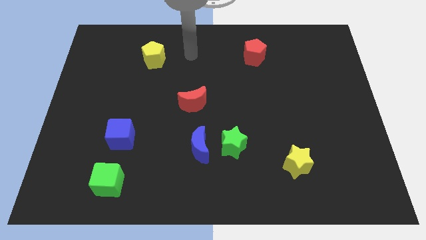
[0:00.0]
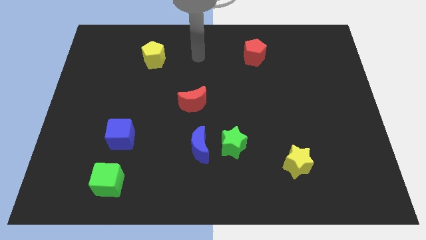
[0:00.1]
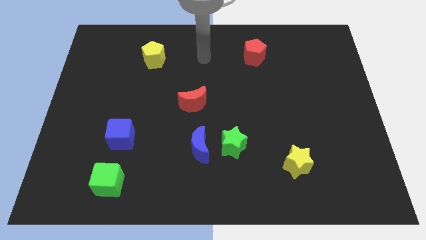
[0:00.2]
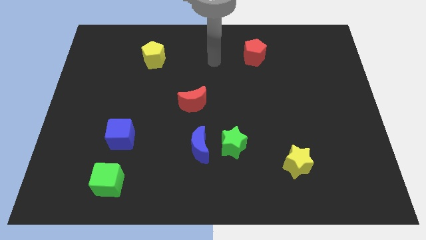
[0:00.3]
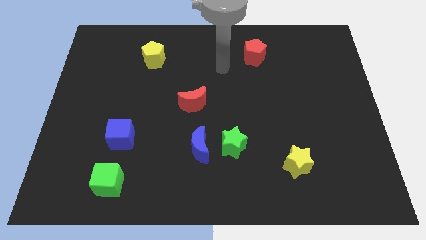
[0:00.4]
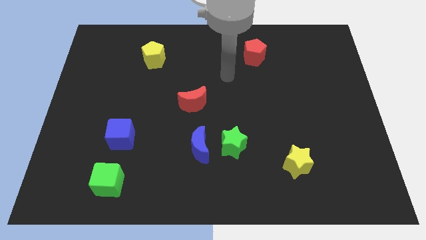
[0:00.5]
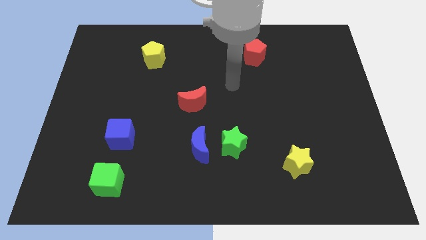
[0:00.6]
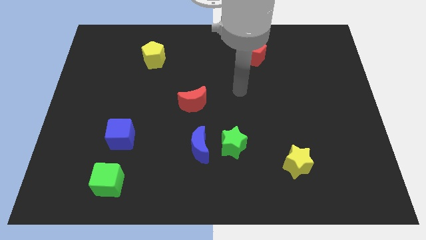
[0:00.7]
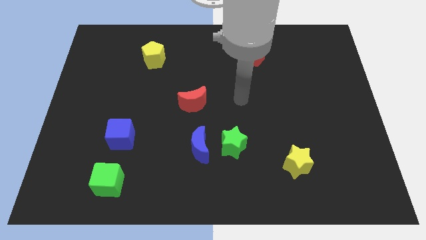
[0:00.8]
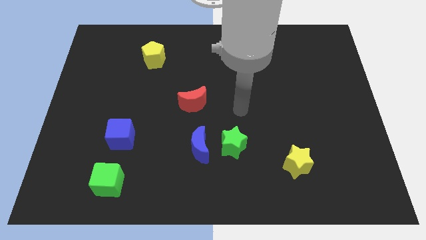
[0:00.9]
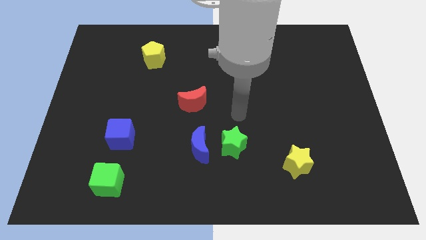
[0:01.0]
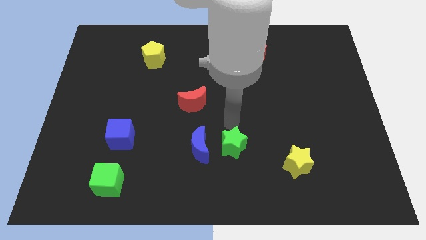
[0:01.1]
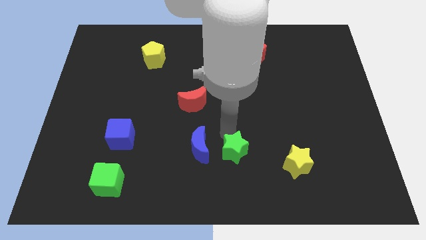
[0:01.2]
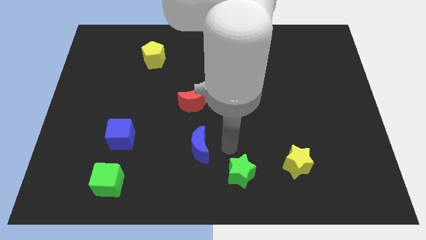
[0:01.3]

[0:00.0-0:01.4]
separate the blue moon from the green star

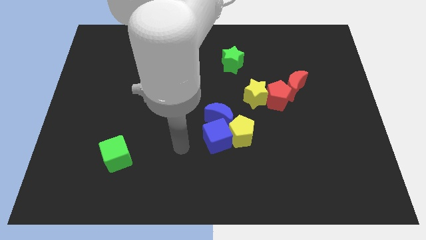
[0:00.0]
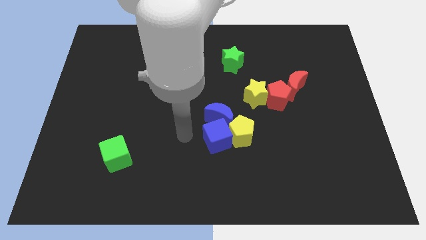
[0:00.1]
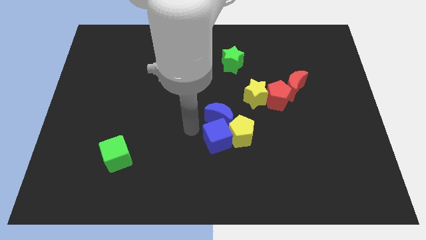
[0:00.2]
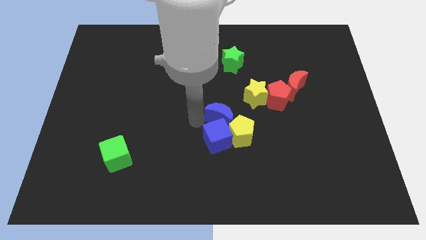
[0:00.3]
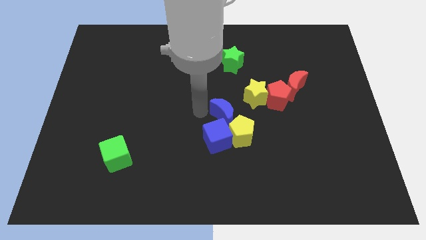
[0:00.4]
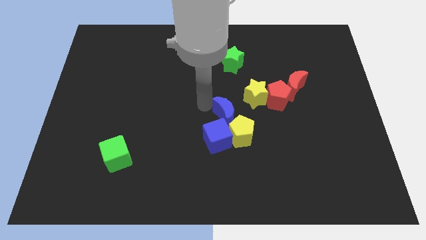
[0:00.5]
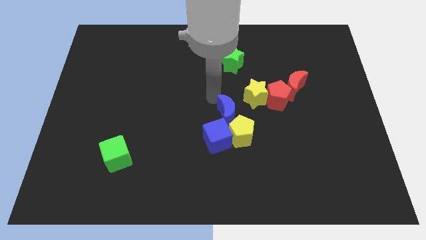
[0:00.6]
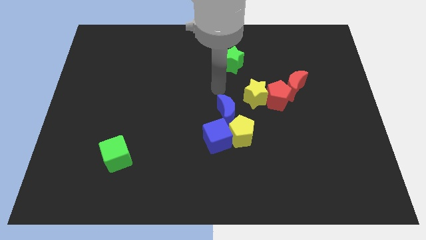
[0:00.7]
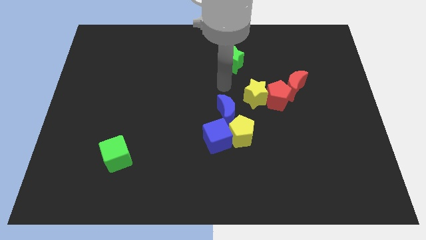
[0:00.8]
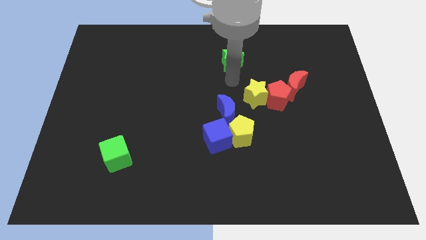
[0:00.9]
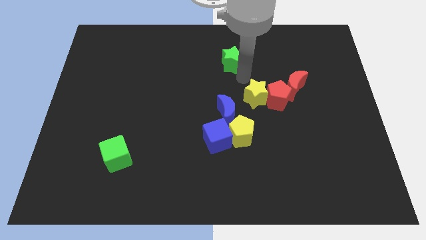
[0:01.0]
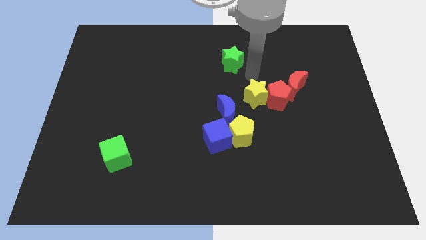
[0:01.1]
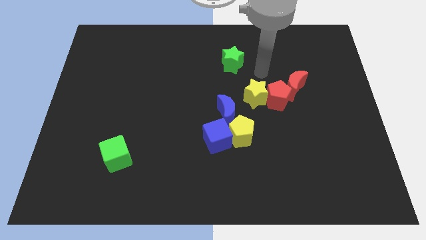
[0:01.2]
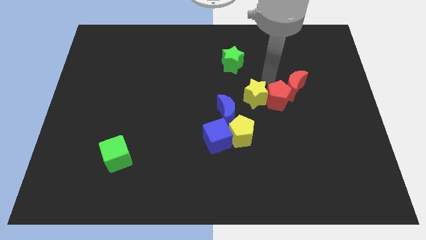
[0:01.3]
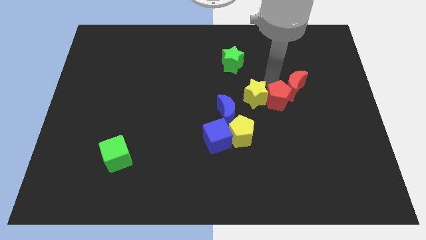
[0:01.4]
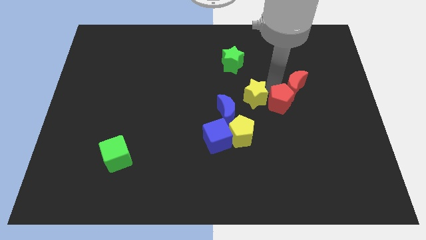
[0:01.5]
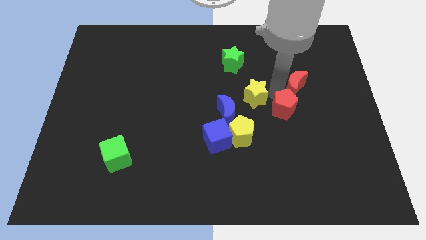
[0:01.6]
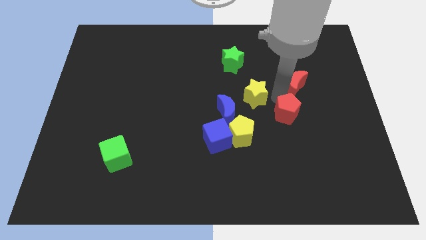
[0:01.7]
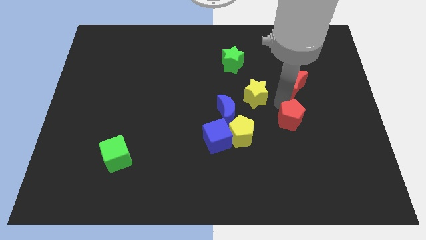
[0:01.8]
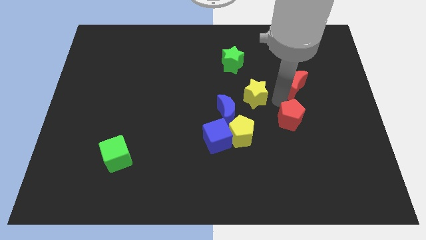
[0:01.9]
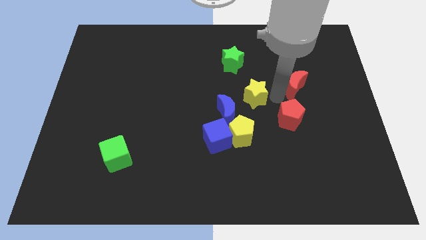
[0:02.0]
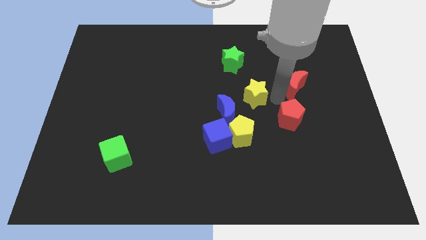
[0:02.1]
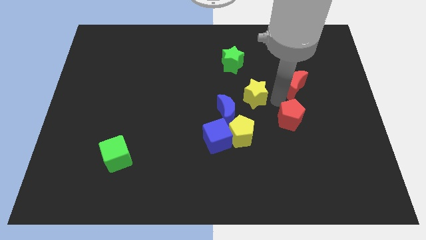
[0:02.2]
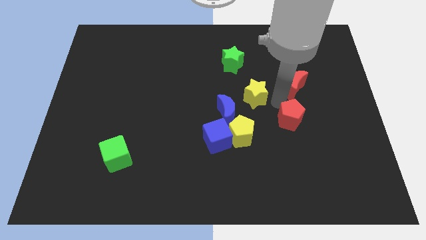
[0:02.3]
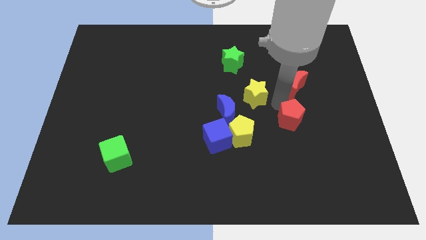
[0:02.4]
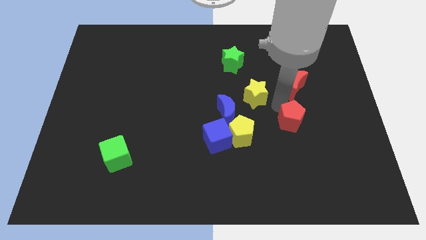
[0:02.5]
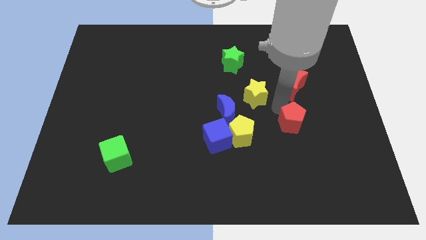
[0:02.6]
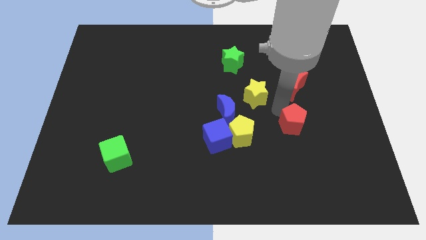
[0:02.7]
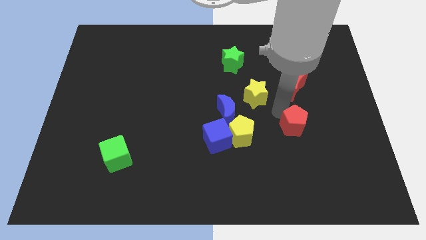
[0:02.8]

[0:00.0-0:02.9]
move the red pentagon away from the yellow star and red moon

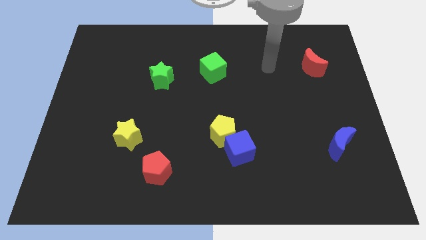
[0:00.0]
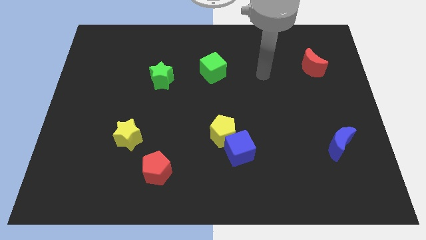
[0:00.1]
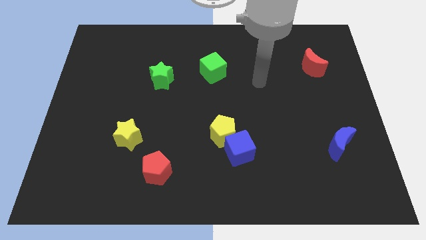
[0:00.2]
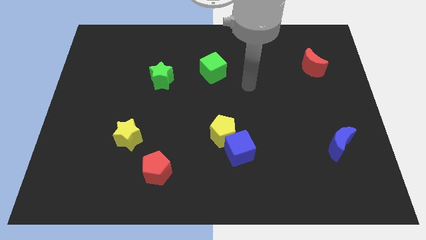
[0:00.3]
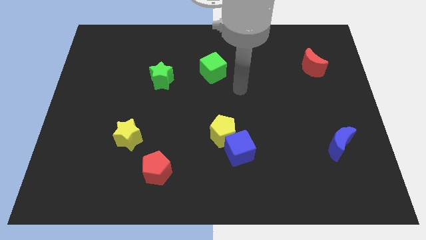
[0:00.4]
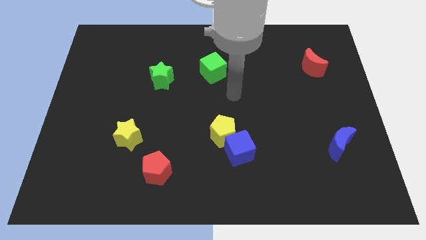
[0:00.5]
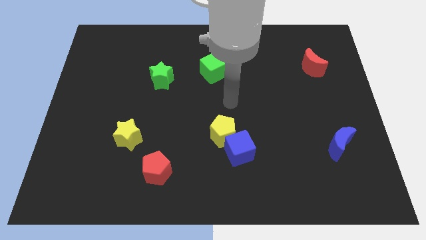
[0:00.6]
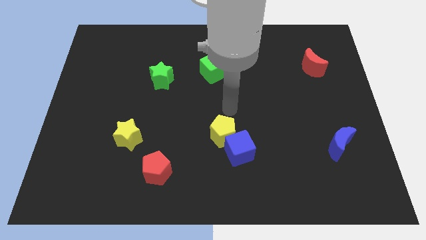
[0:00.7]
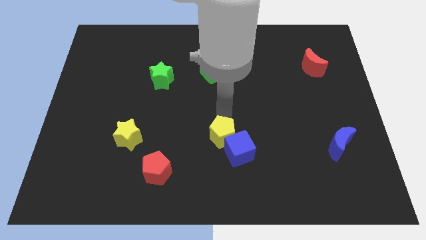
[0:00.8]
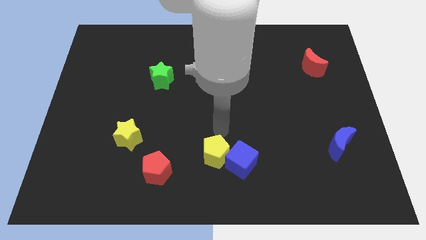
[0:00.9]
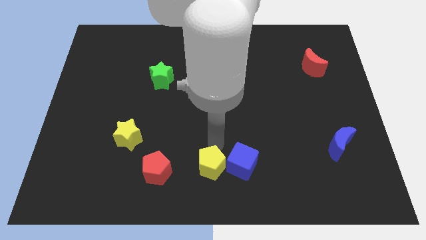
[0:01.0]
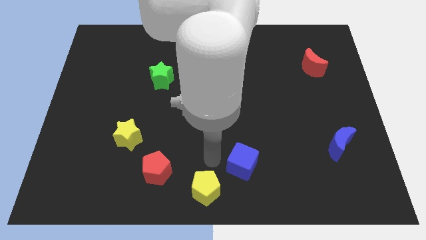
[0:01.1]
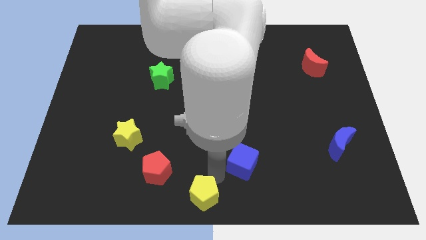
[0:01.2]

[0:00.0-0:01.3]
pull the blue cube apart from the yellow pentagon

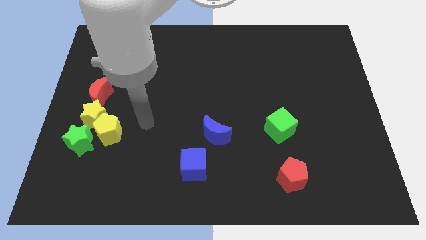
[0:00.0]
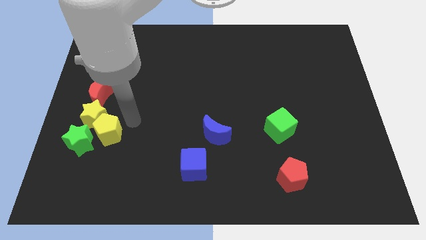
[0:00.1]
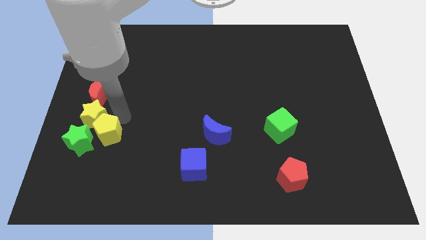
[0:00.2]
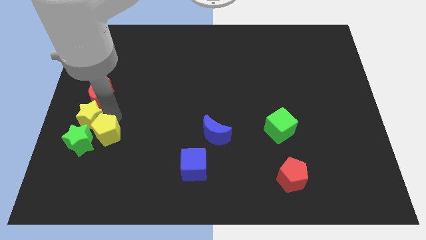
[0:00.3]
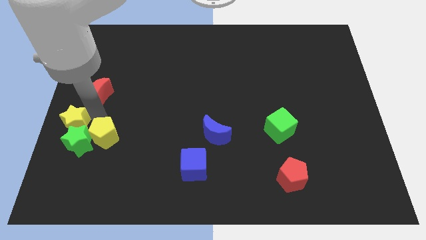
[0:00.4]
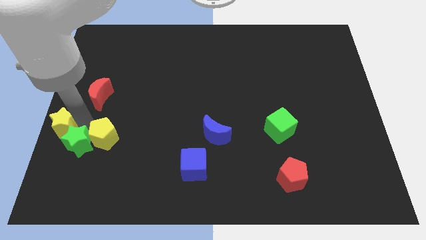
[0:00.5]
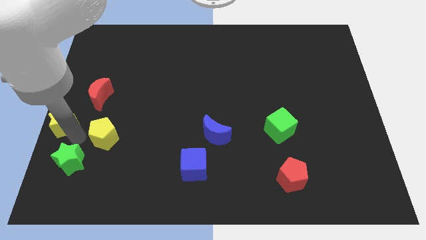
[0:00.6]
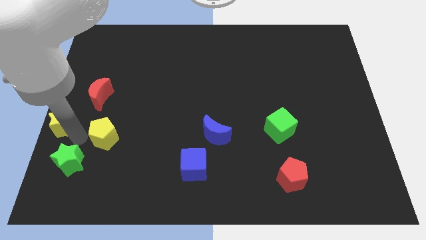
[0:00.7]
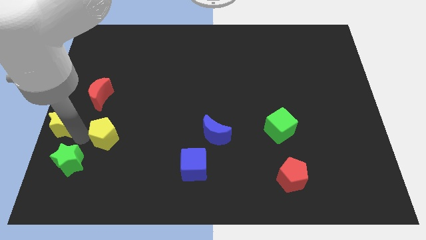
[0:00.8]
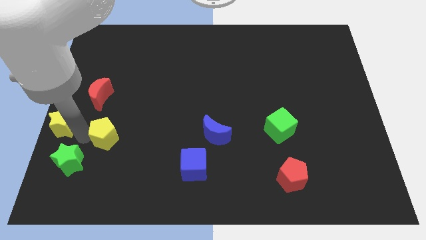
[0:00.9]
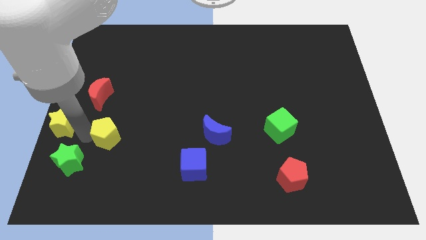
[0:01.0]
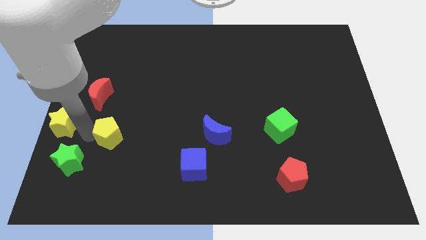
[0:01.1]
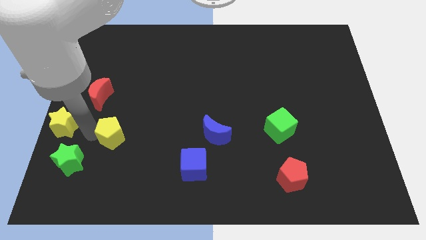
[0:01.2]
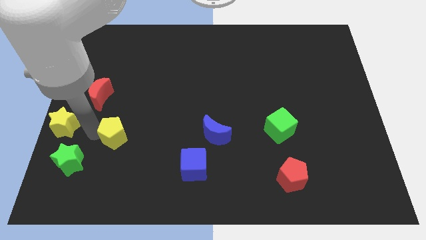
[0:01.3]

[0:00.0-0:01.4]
move the yellow pentagon away from the yellow star and green star

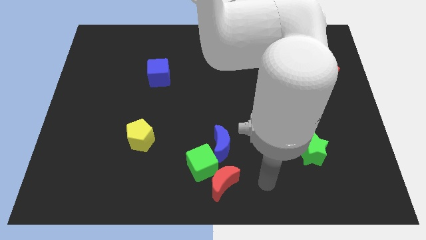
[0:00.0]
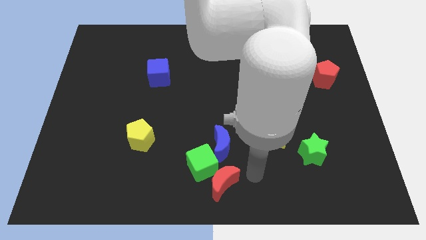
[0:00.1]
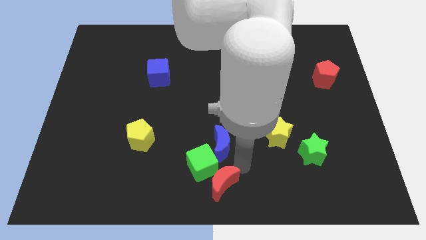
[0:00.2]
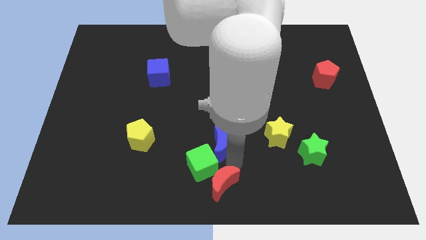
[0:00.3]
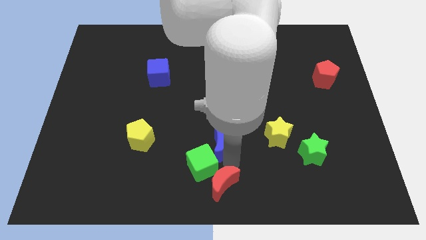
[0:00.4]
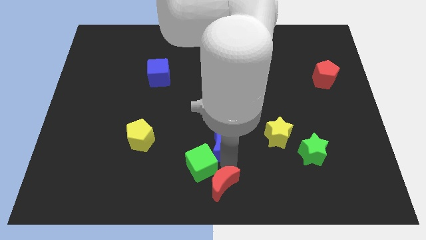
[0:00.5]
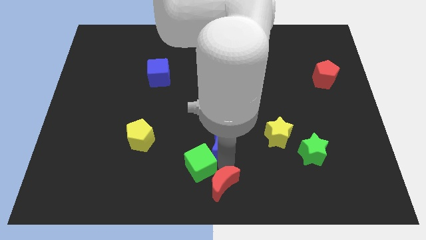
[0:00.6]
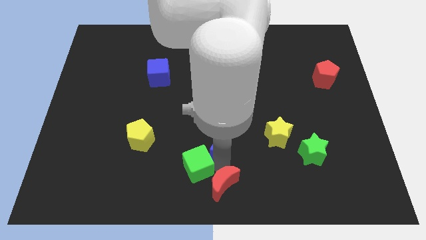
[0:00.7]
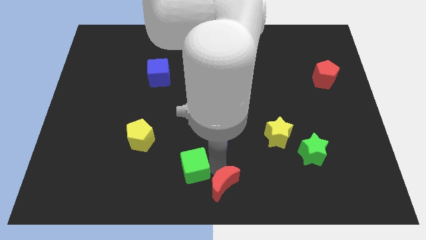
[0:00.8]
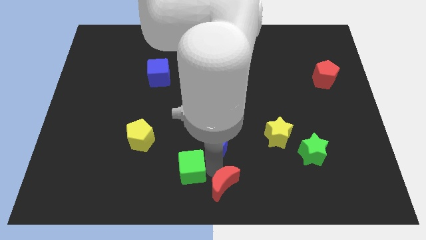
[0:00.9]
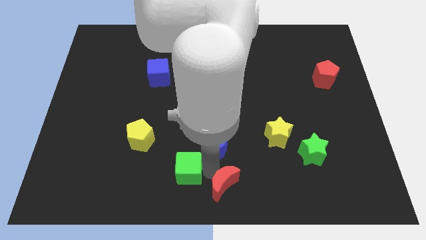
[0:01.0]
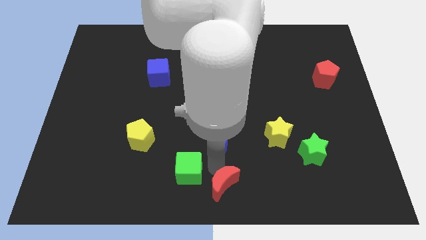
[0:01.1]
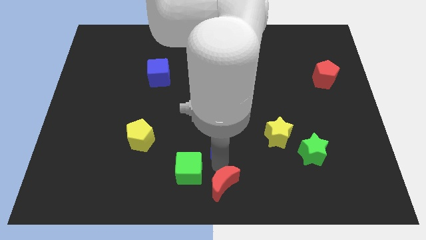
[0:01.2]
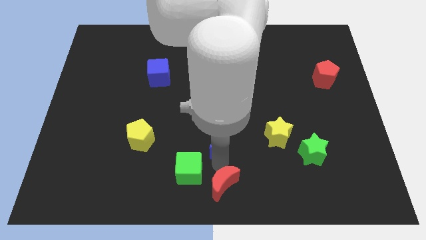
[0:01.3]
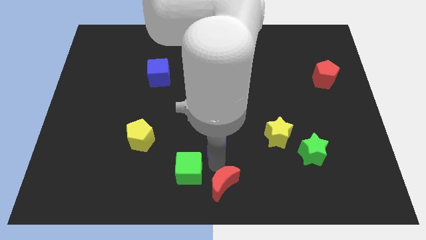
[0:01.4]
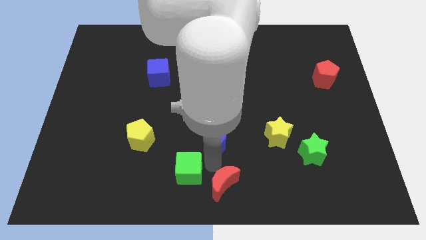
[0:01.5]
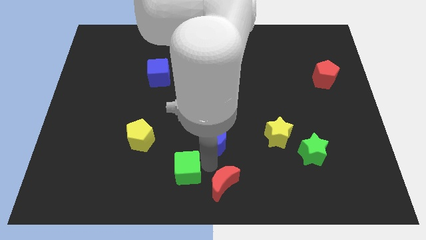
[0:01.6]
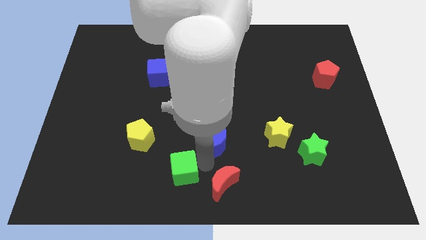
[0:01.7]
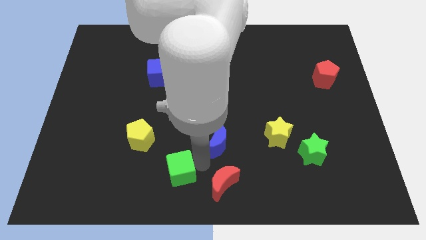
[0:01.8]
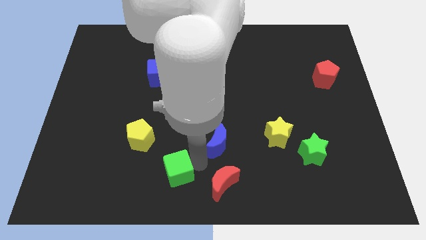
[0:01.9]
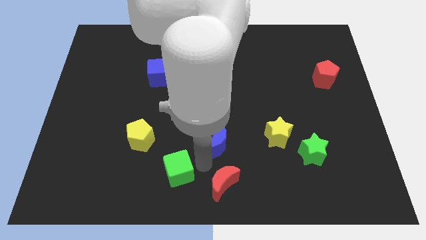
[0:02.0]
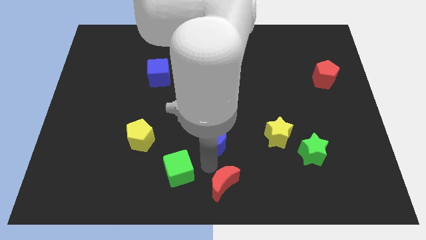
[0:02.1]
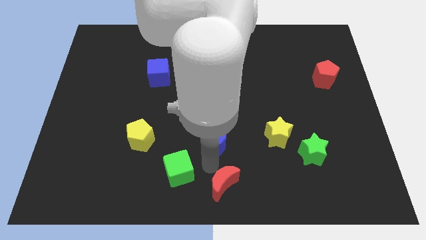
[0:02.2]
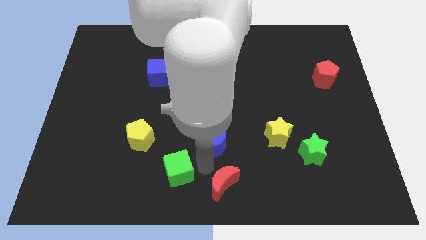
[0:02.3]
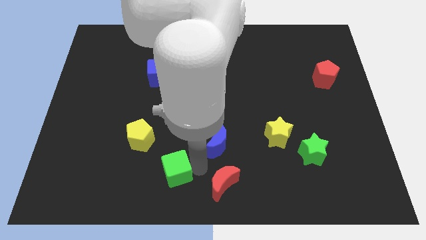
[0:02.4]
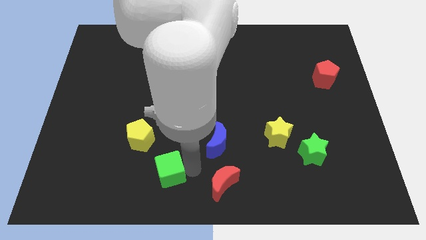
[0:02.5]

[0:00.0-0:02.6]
separate the green cube from the red moon and blue moon
